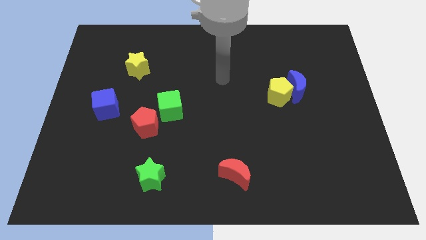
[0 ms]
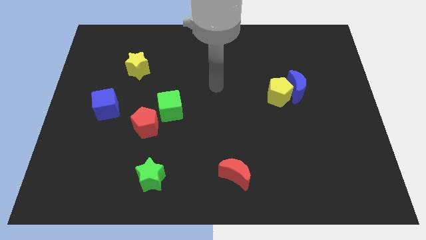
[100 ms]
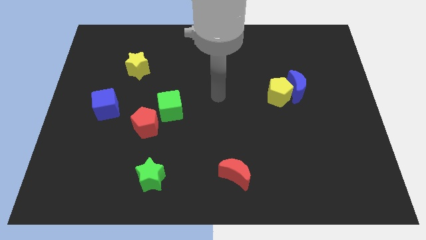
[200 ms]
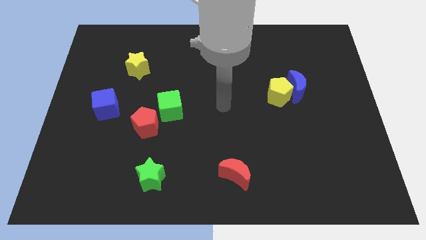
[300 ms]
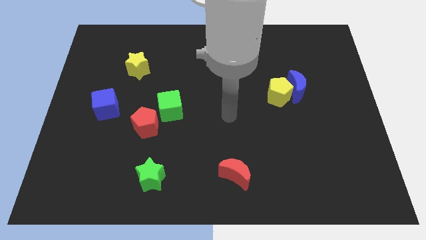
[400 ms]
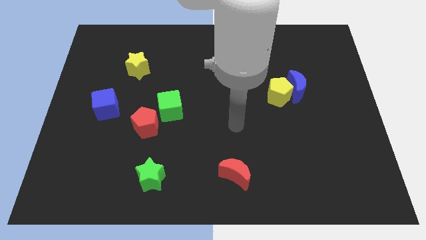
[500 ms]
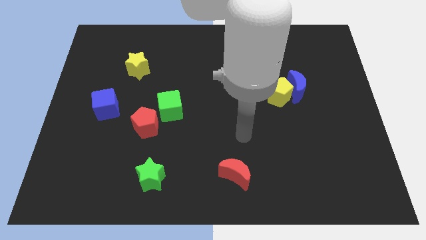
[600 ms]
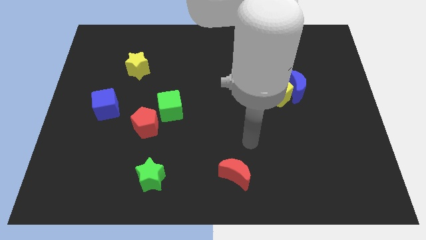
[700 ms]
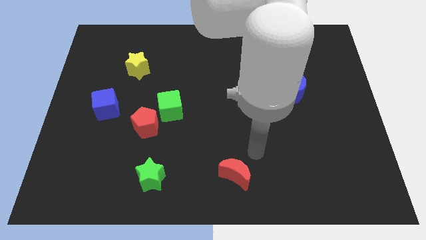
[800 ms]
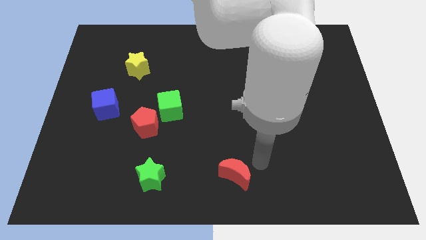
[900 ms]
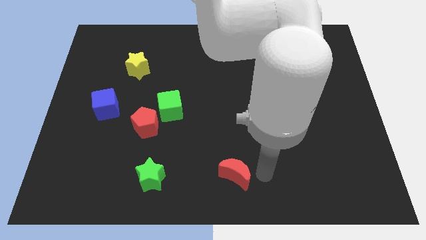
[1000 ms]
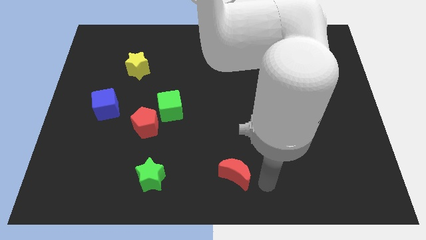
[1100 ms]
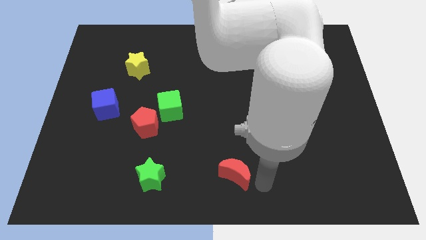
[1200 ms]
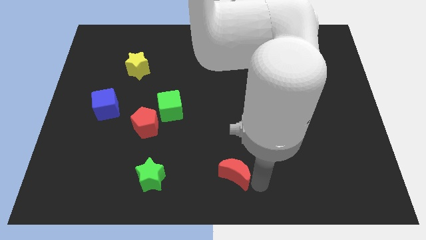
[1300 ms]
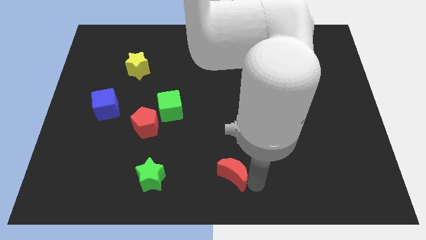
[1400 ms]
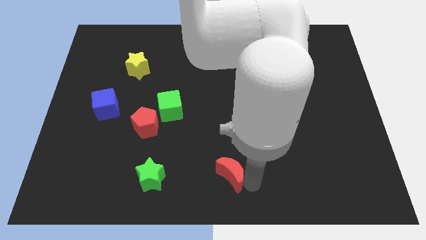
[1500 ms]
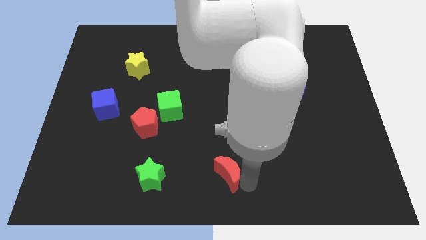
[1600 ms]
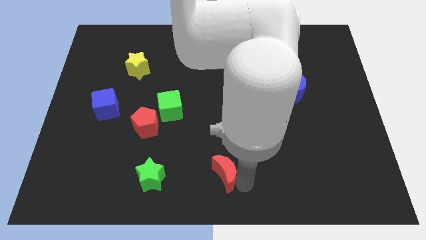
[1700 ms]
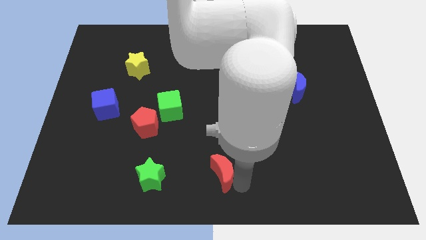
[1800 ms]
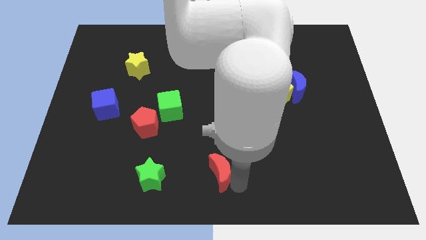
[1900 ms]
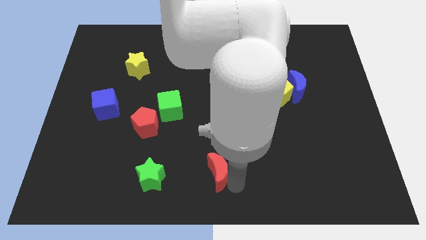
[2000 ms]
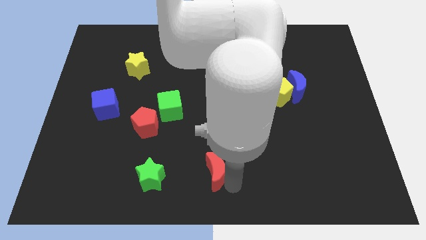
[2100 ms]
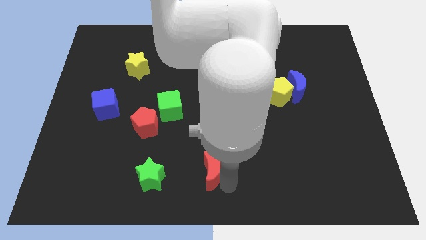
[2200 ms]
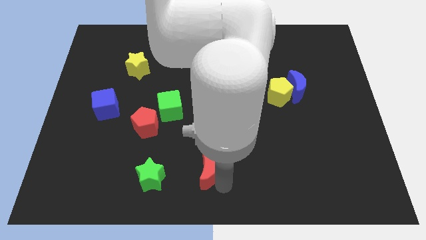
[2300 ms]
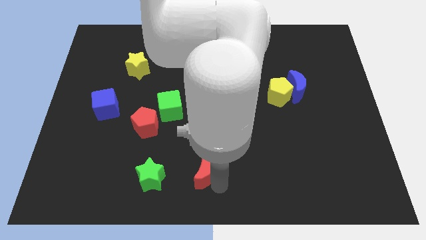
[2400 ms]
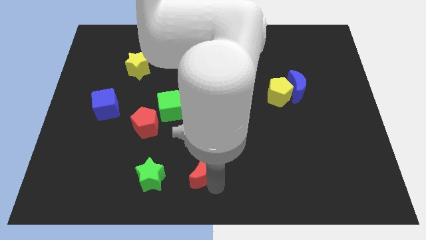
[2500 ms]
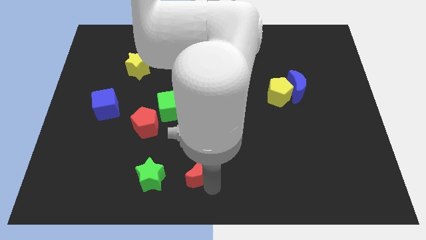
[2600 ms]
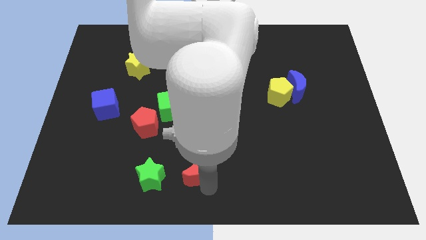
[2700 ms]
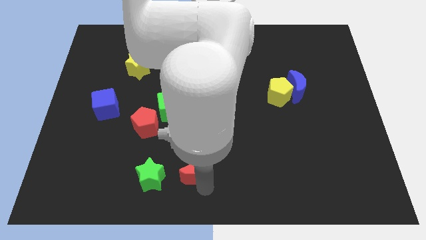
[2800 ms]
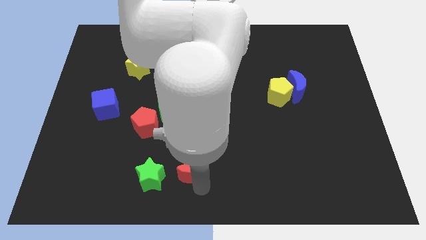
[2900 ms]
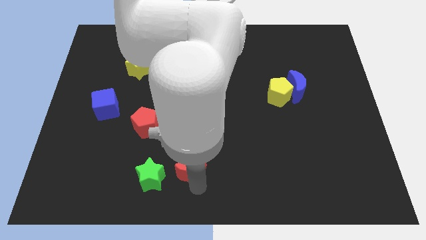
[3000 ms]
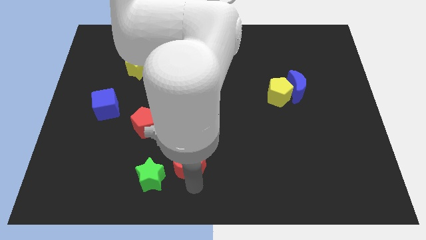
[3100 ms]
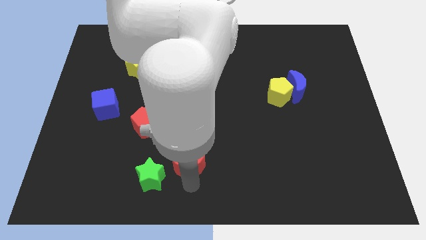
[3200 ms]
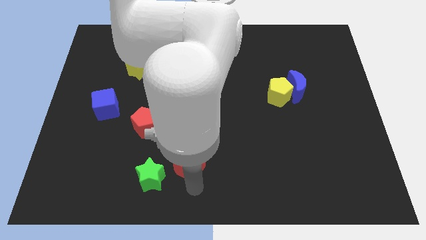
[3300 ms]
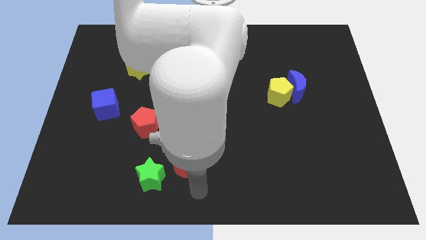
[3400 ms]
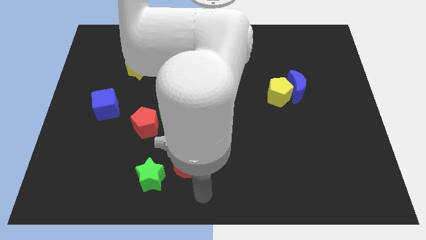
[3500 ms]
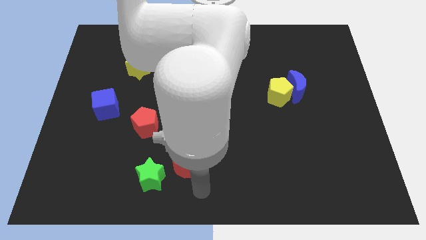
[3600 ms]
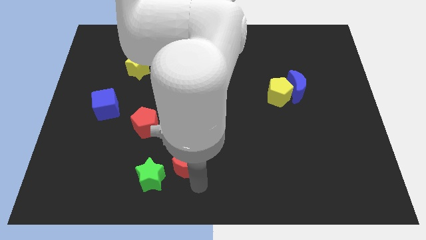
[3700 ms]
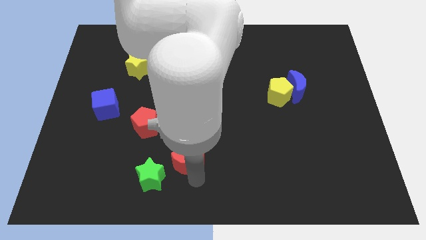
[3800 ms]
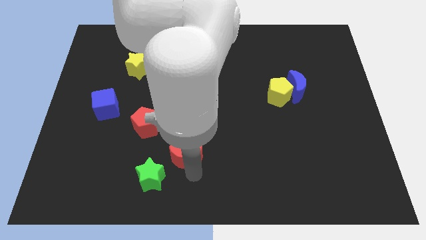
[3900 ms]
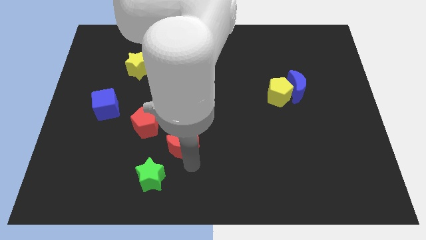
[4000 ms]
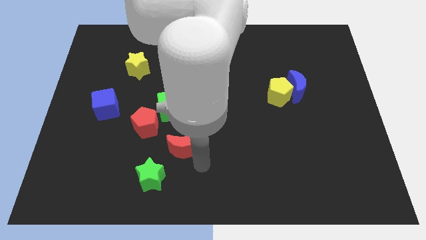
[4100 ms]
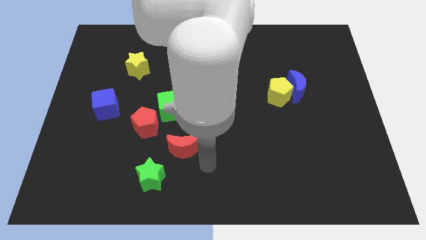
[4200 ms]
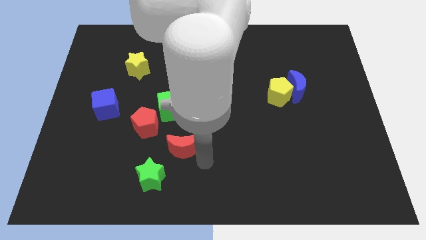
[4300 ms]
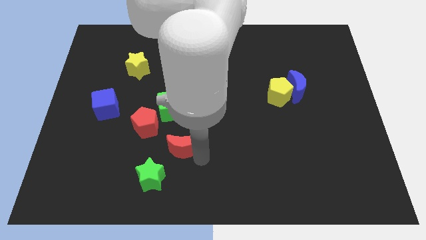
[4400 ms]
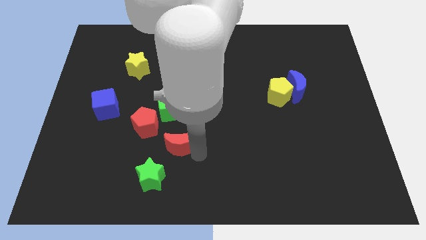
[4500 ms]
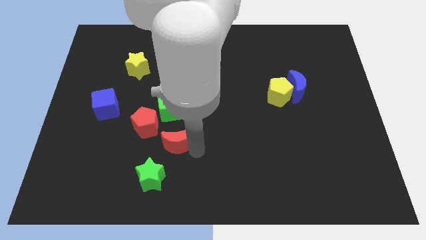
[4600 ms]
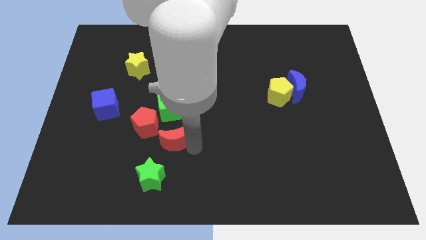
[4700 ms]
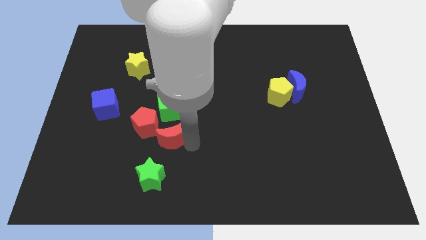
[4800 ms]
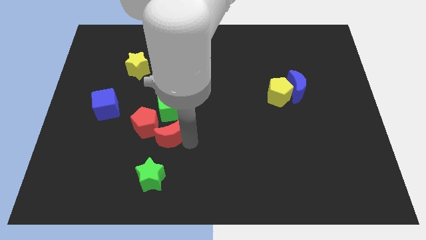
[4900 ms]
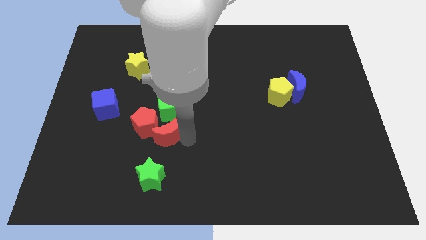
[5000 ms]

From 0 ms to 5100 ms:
slide the red moon towards the red pentagon

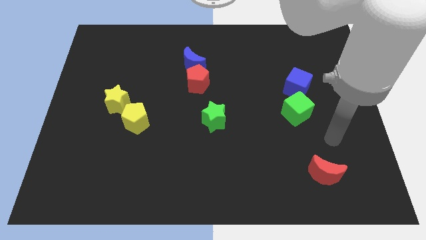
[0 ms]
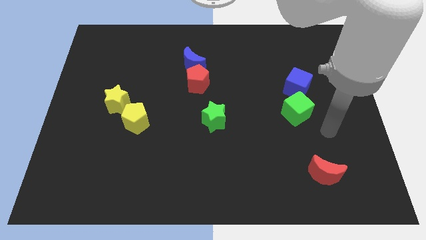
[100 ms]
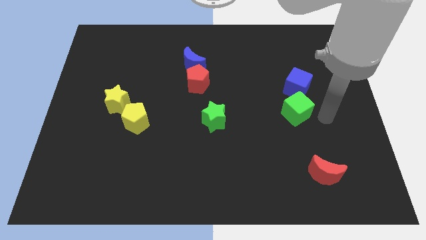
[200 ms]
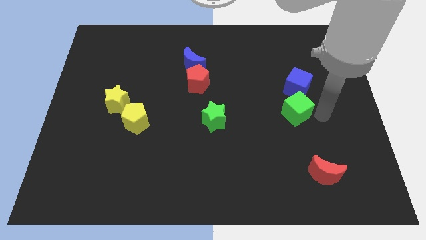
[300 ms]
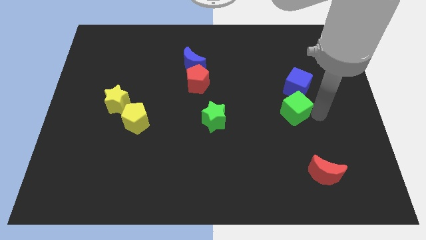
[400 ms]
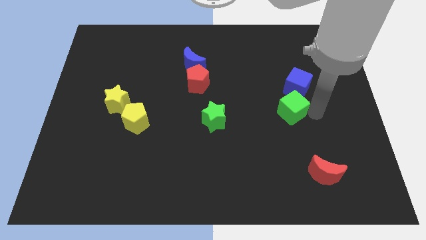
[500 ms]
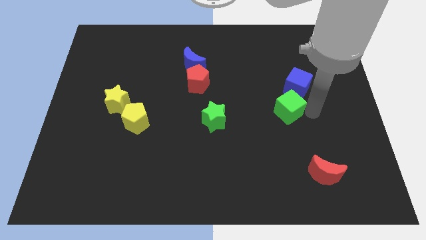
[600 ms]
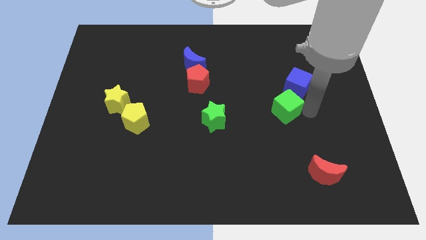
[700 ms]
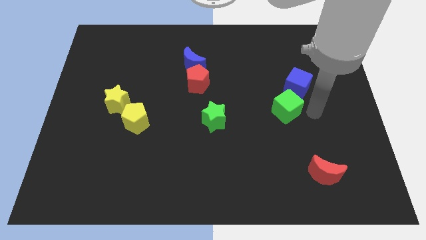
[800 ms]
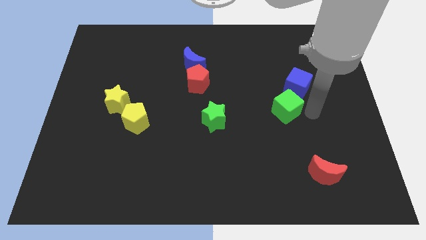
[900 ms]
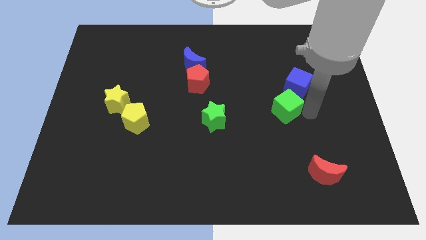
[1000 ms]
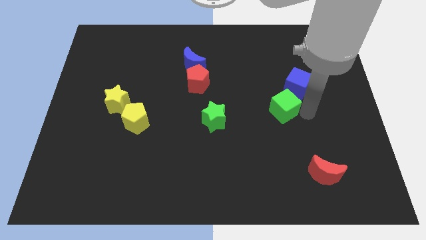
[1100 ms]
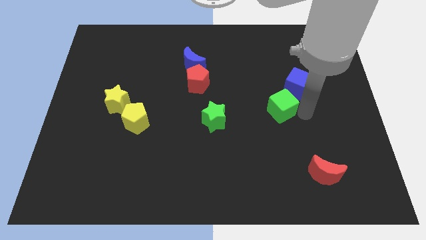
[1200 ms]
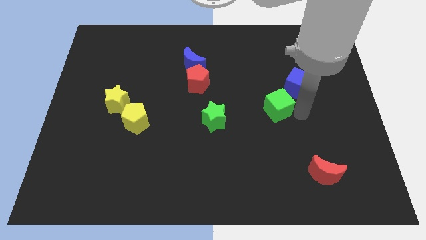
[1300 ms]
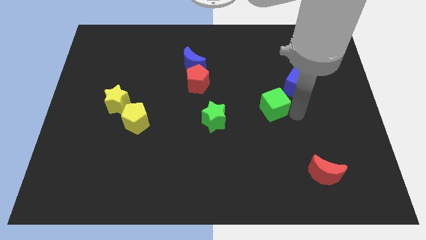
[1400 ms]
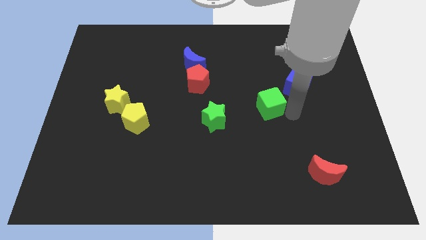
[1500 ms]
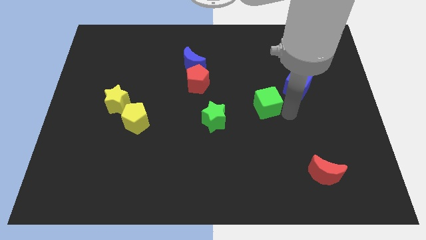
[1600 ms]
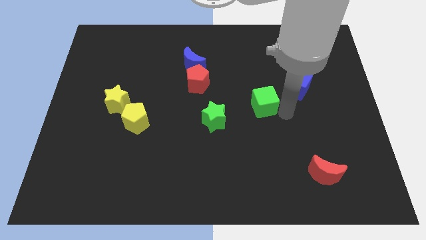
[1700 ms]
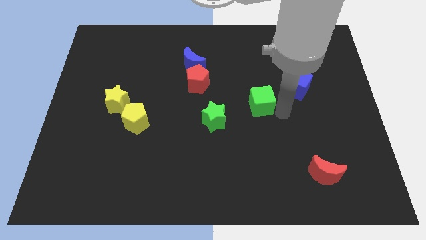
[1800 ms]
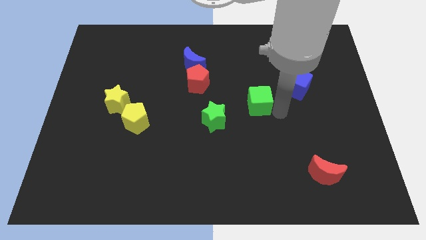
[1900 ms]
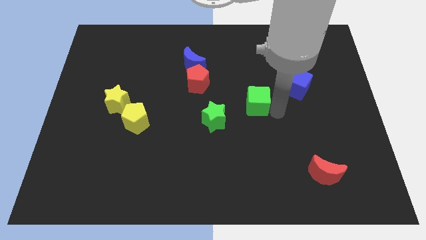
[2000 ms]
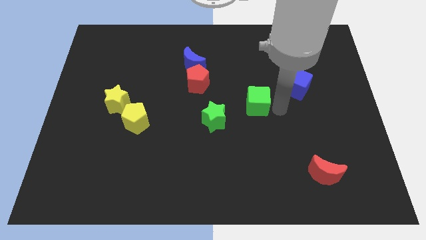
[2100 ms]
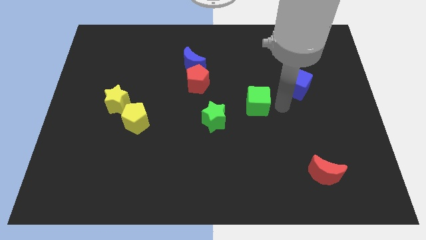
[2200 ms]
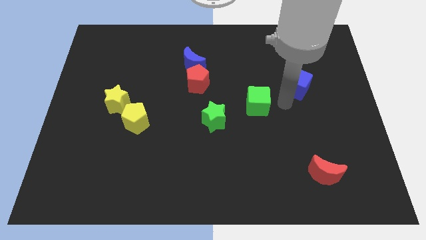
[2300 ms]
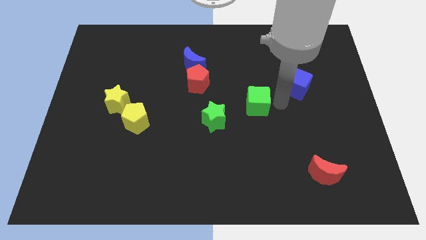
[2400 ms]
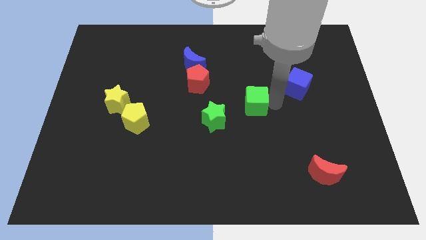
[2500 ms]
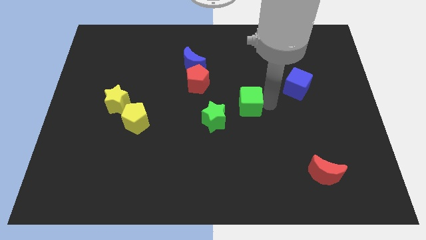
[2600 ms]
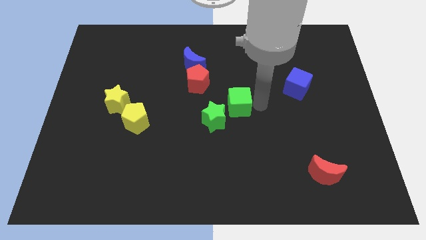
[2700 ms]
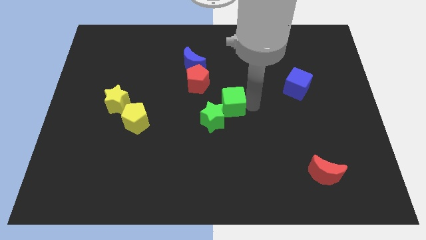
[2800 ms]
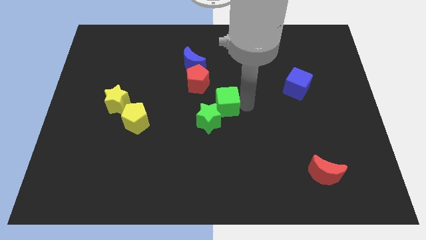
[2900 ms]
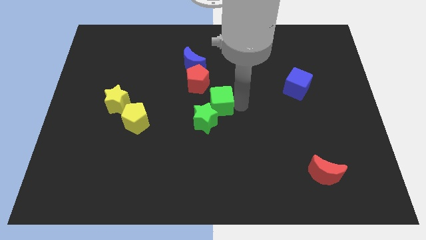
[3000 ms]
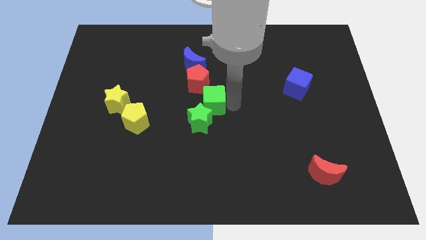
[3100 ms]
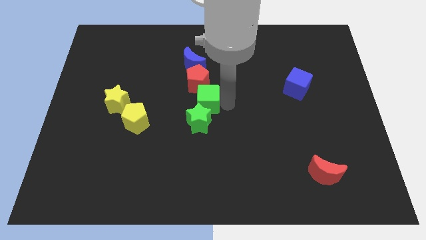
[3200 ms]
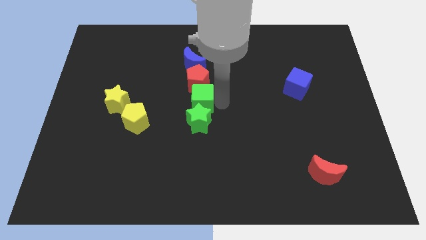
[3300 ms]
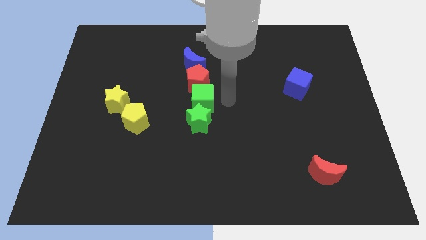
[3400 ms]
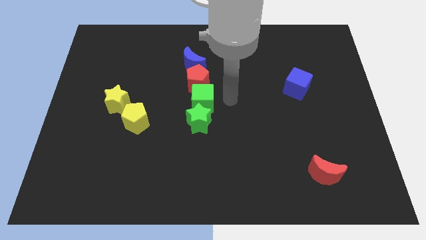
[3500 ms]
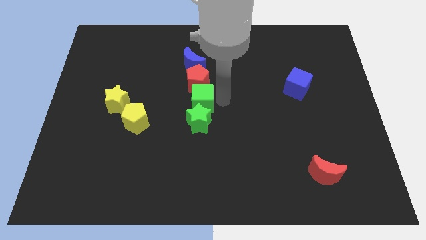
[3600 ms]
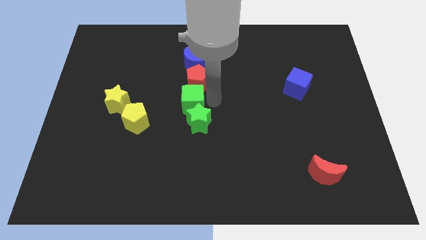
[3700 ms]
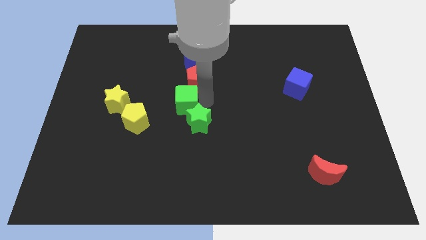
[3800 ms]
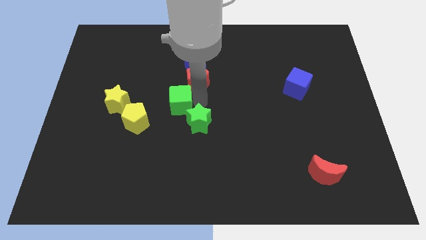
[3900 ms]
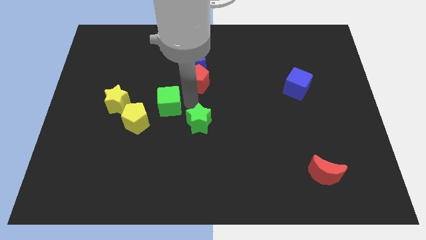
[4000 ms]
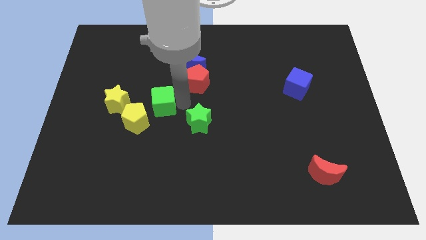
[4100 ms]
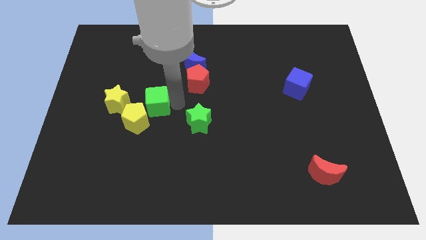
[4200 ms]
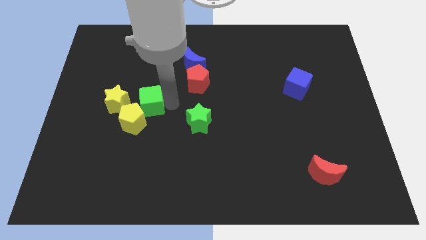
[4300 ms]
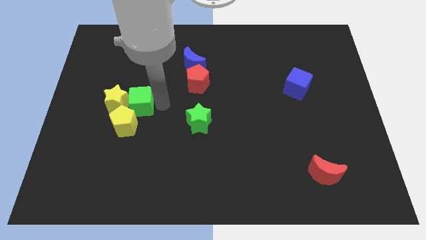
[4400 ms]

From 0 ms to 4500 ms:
move the green cube towards the yellow star
